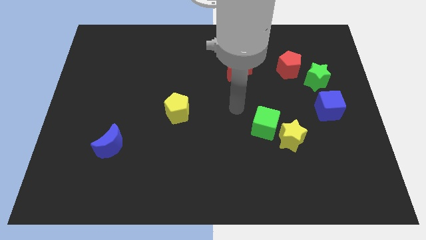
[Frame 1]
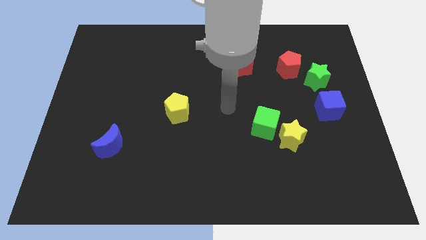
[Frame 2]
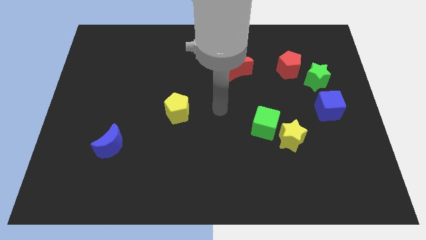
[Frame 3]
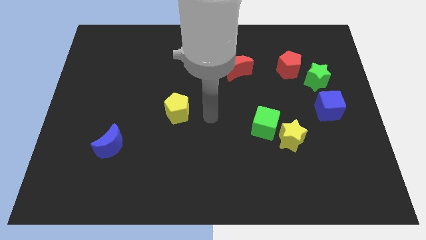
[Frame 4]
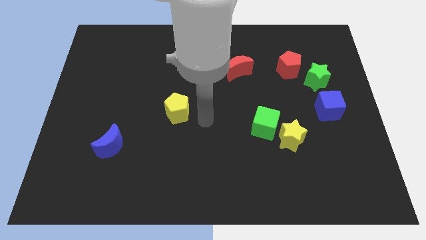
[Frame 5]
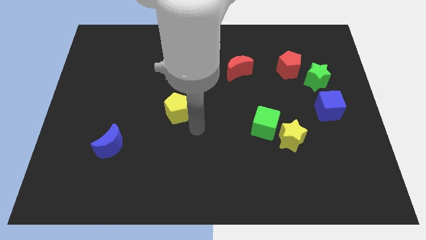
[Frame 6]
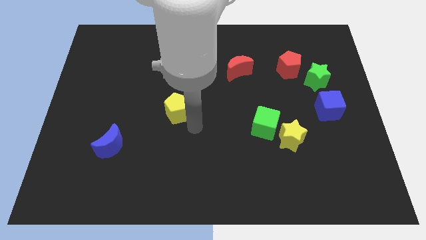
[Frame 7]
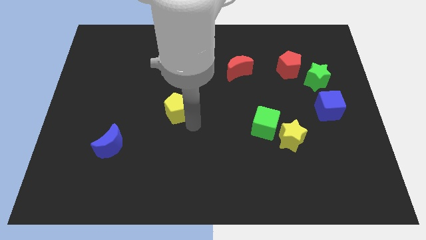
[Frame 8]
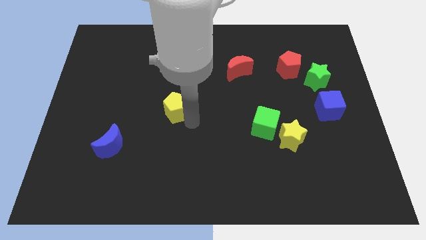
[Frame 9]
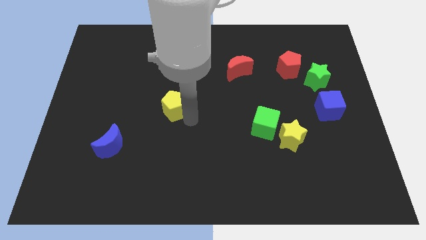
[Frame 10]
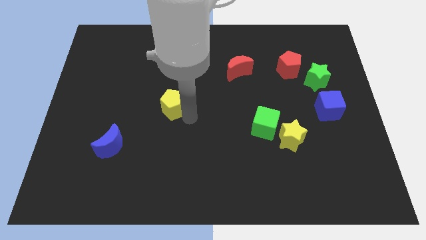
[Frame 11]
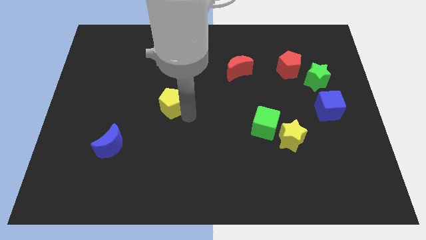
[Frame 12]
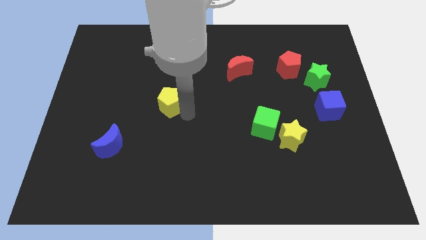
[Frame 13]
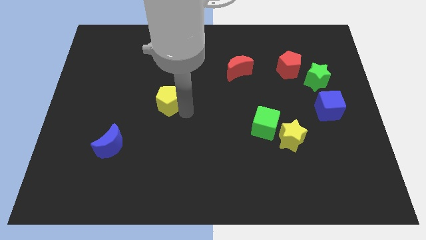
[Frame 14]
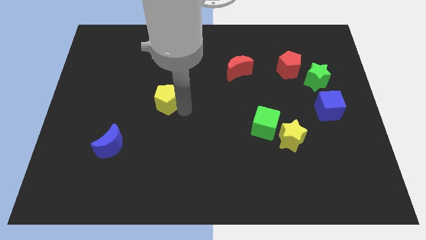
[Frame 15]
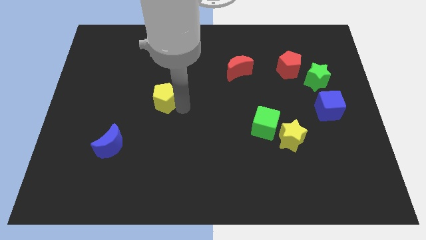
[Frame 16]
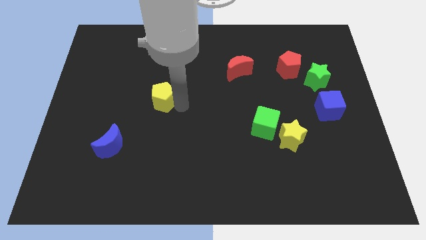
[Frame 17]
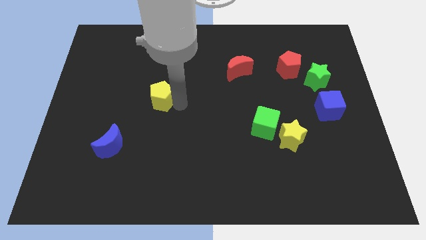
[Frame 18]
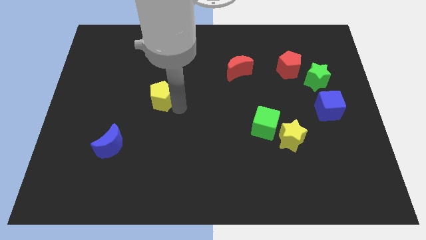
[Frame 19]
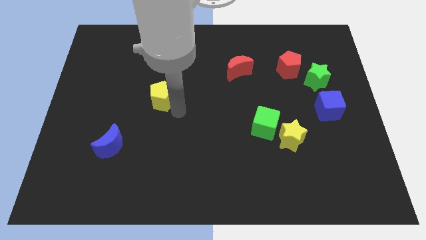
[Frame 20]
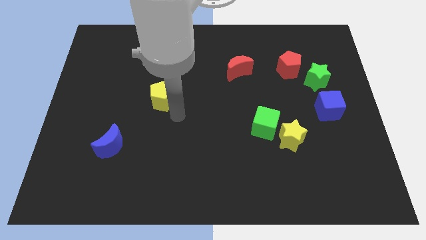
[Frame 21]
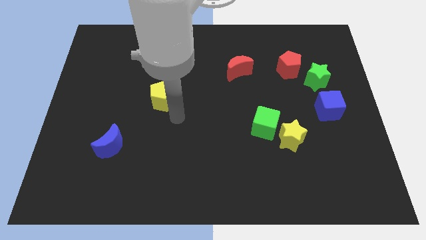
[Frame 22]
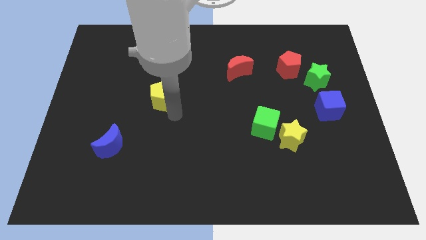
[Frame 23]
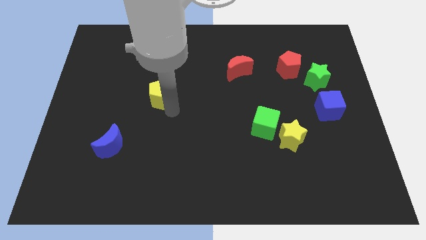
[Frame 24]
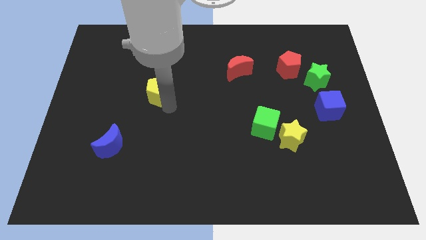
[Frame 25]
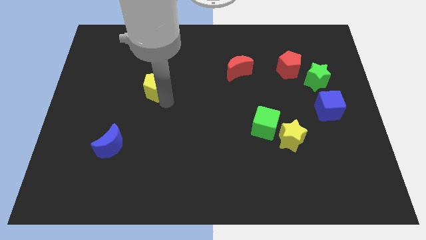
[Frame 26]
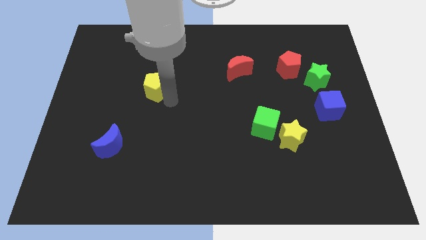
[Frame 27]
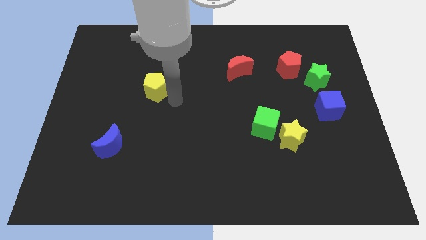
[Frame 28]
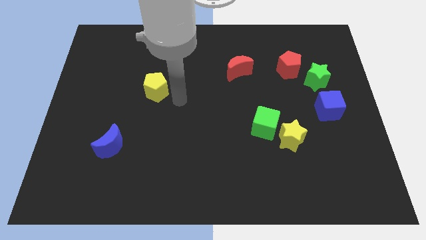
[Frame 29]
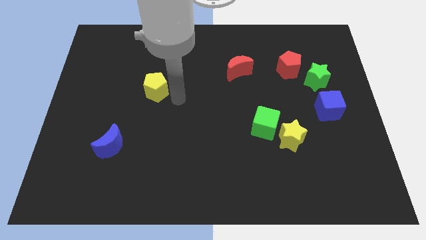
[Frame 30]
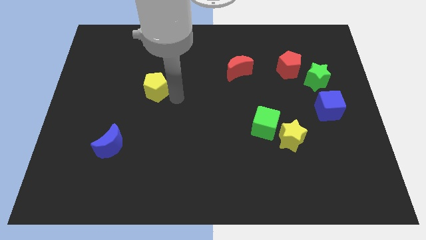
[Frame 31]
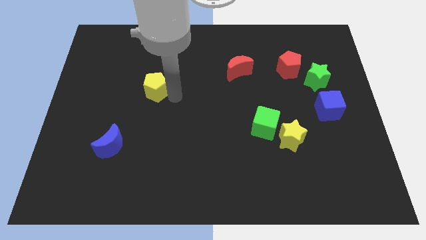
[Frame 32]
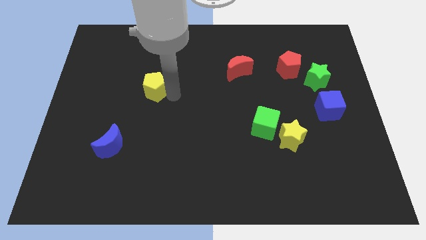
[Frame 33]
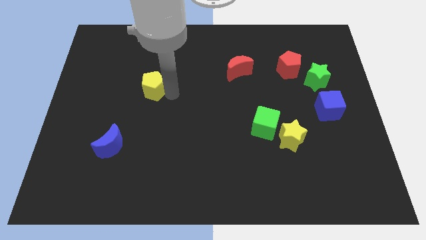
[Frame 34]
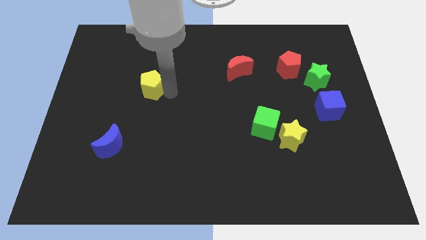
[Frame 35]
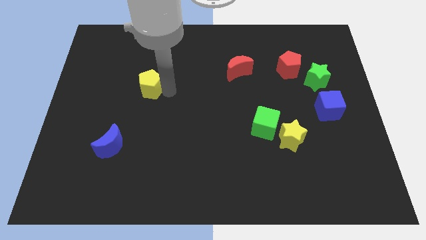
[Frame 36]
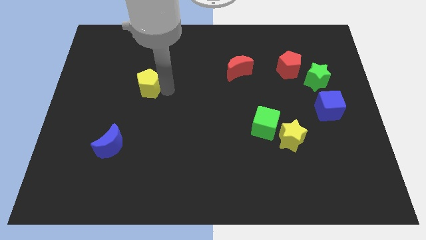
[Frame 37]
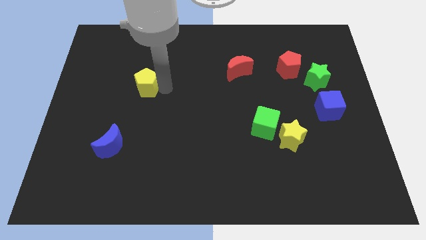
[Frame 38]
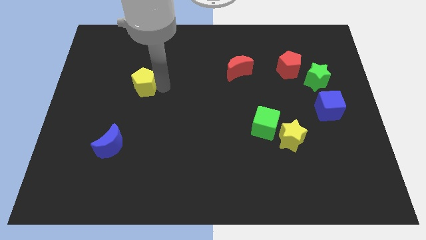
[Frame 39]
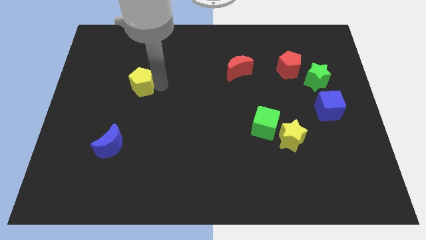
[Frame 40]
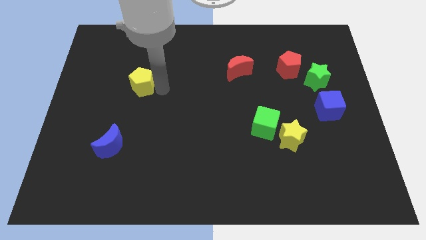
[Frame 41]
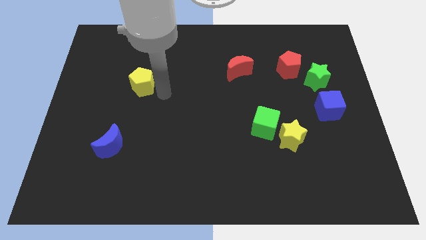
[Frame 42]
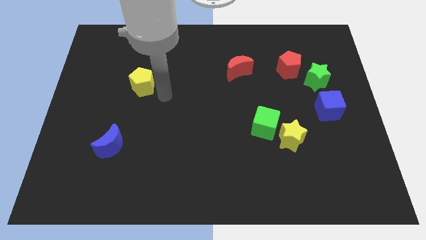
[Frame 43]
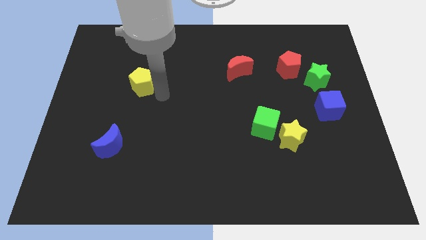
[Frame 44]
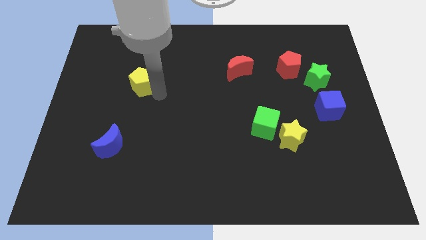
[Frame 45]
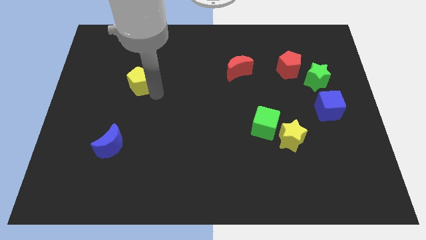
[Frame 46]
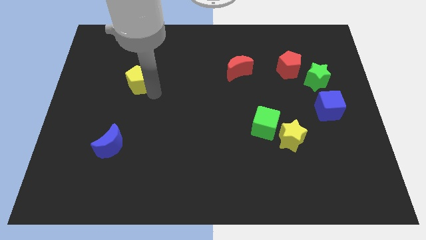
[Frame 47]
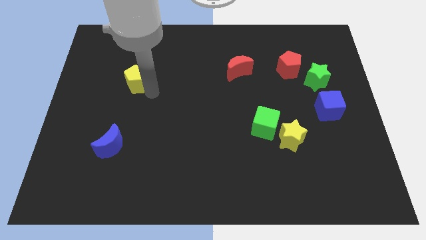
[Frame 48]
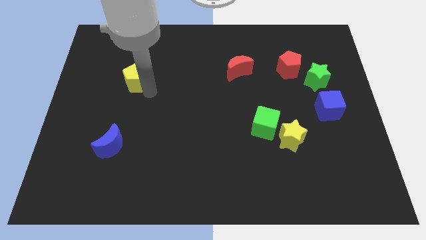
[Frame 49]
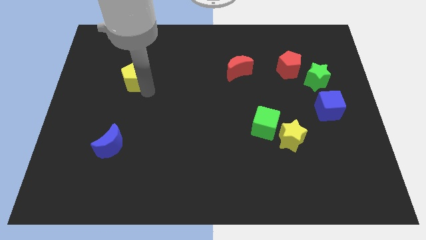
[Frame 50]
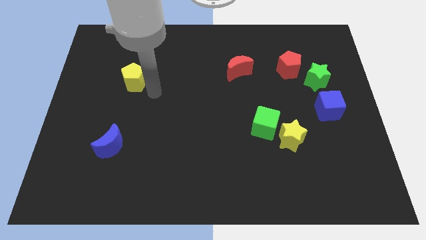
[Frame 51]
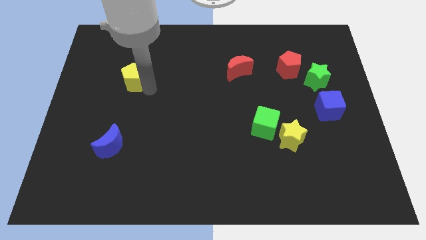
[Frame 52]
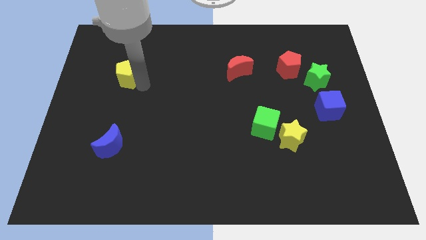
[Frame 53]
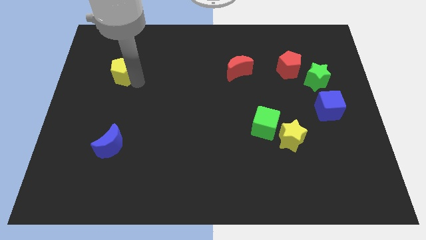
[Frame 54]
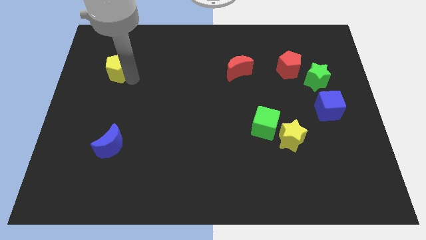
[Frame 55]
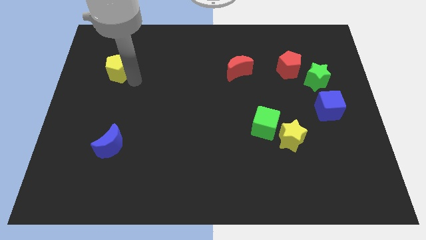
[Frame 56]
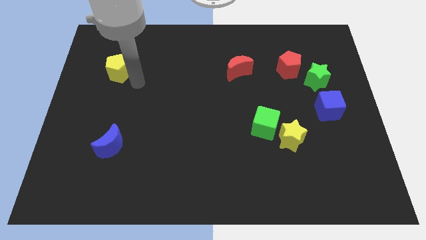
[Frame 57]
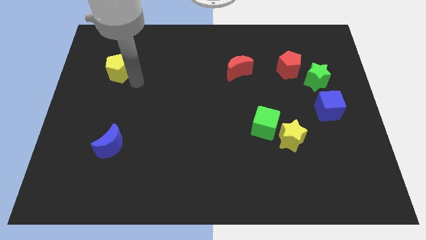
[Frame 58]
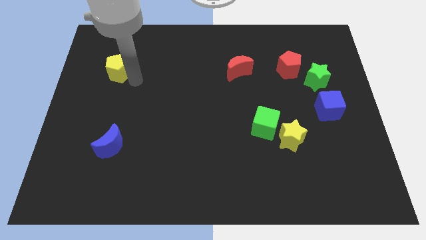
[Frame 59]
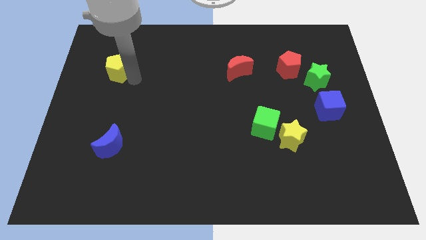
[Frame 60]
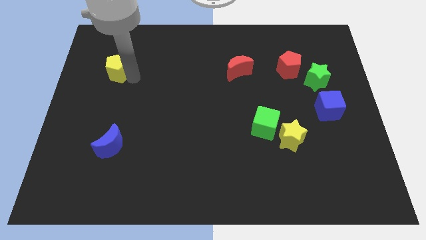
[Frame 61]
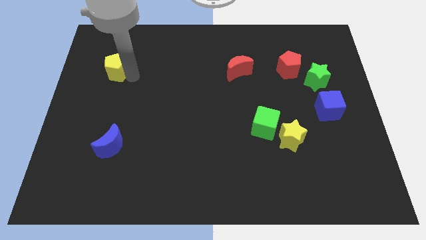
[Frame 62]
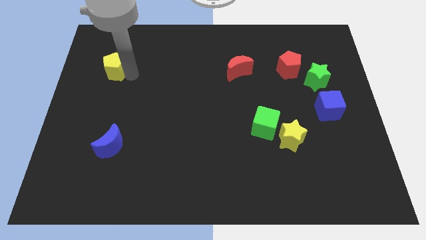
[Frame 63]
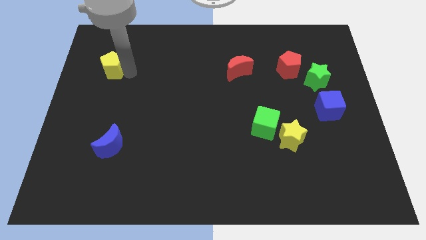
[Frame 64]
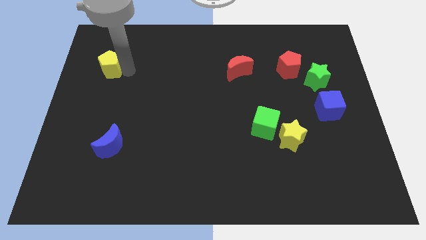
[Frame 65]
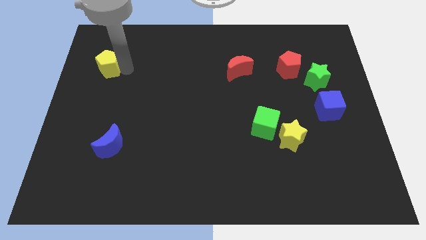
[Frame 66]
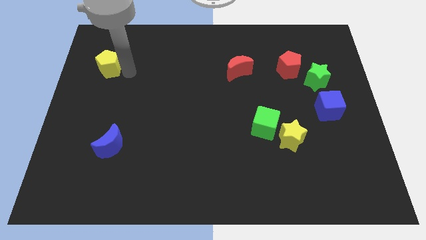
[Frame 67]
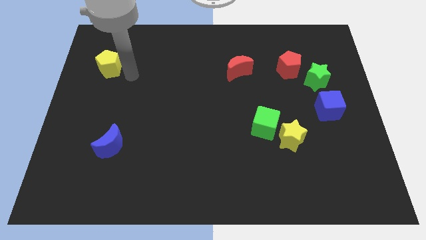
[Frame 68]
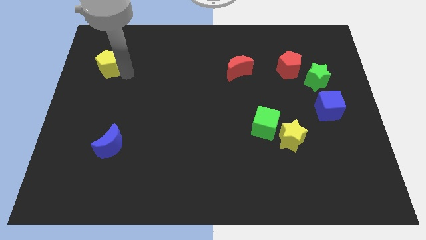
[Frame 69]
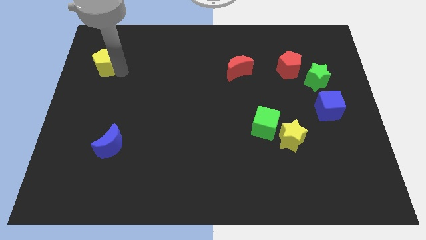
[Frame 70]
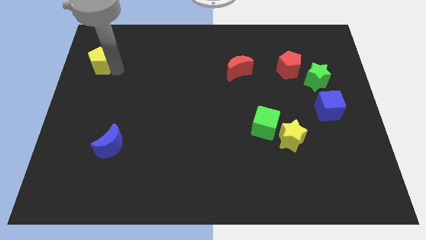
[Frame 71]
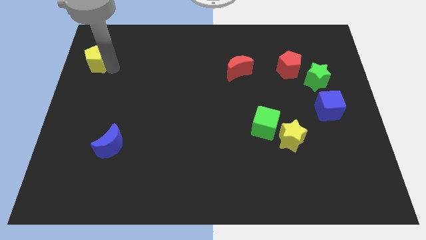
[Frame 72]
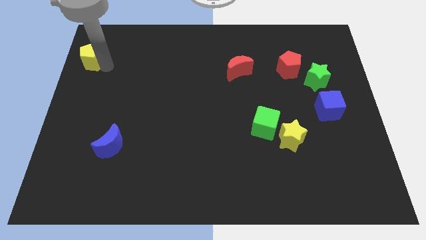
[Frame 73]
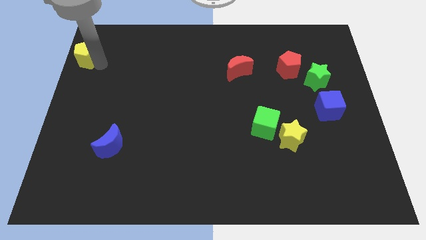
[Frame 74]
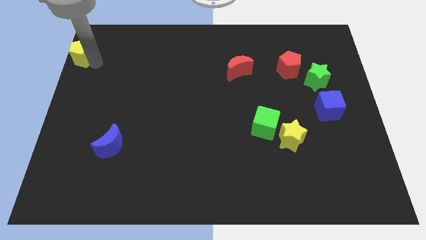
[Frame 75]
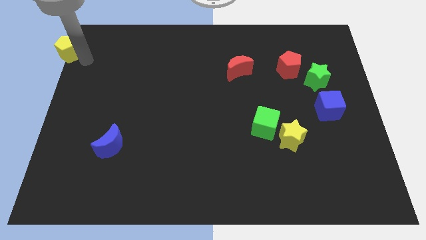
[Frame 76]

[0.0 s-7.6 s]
move the yellow pentagon to the top left corner
